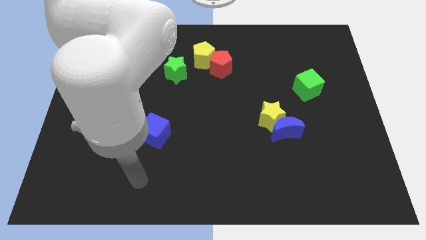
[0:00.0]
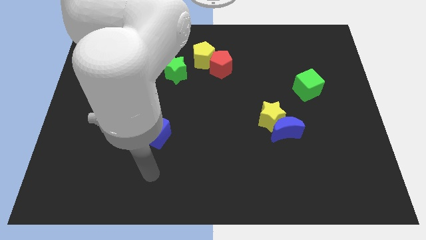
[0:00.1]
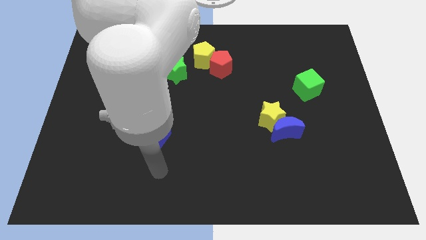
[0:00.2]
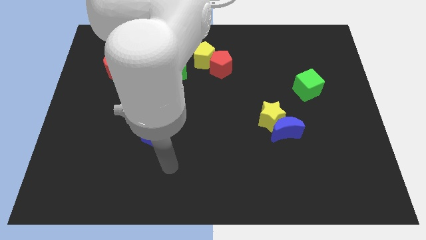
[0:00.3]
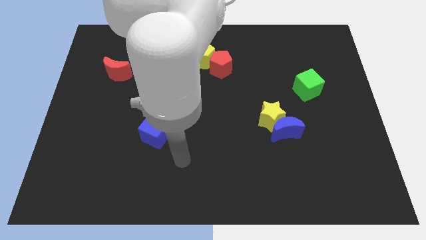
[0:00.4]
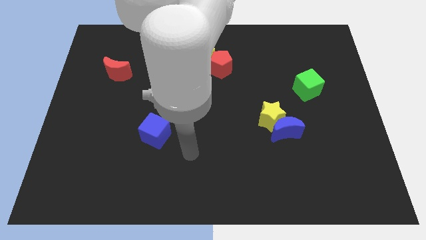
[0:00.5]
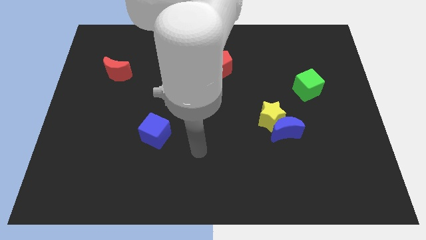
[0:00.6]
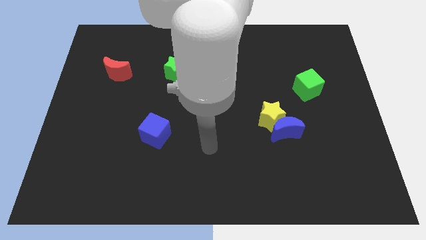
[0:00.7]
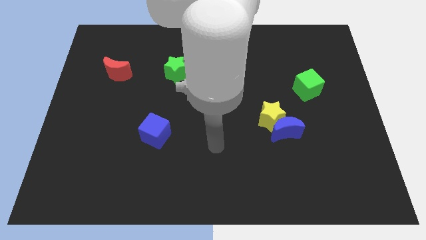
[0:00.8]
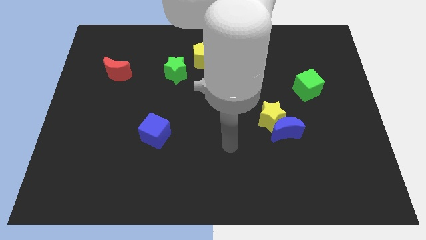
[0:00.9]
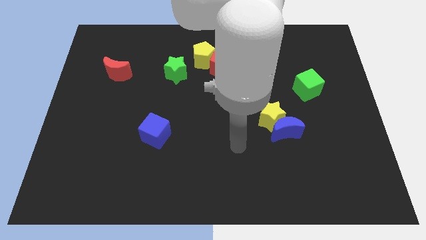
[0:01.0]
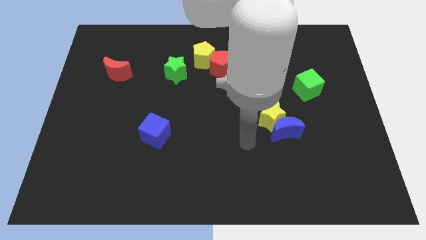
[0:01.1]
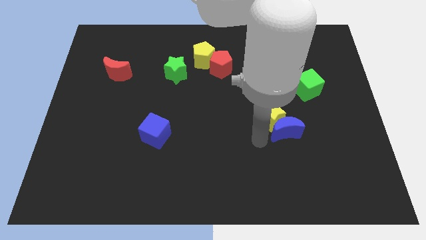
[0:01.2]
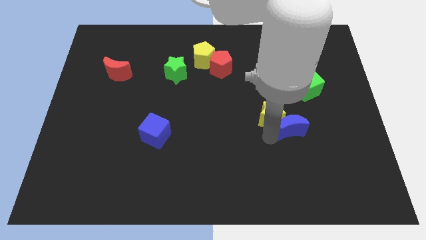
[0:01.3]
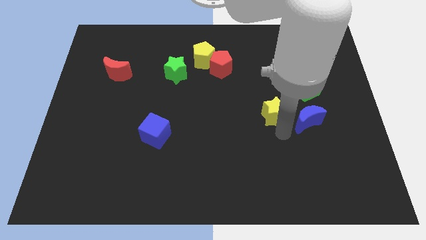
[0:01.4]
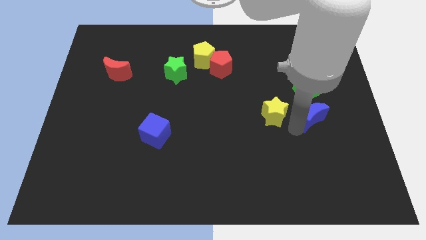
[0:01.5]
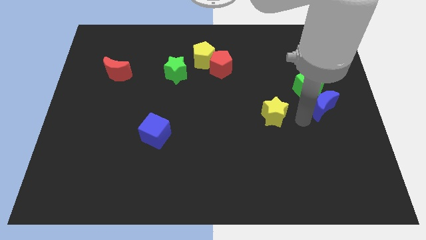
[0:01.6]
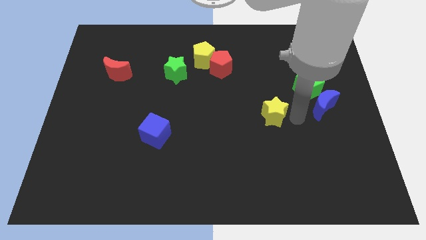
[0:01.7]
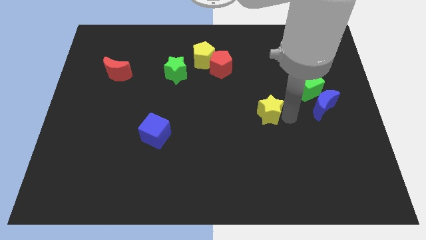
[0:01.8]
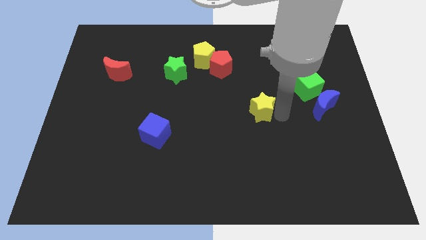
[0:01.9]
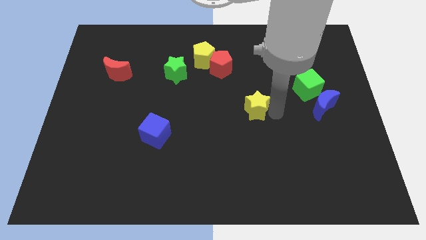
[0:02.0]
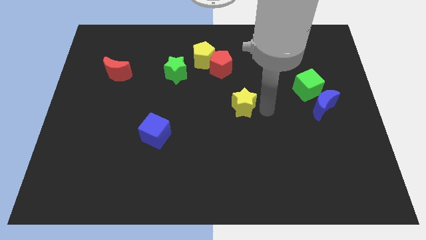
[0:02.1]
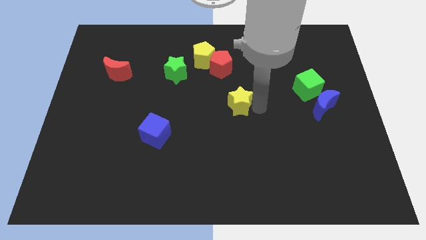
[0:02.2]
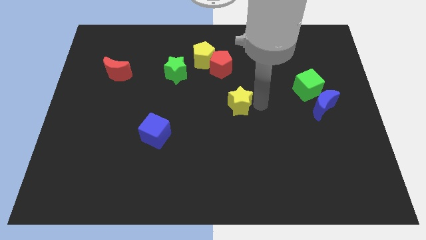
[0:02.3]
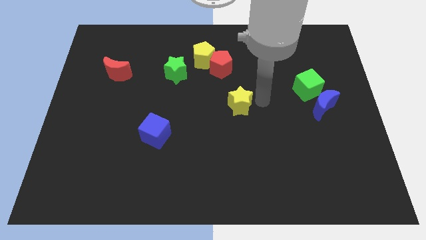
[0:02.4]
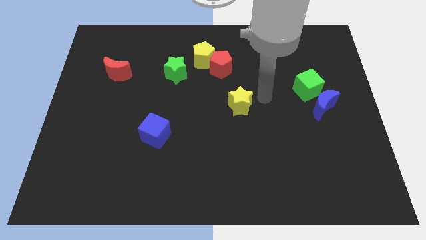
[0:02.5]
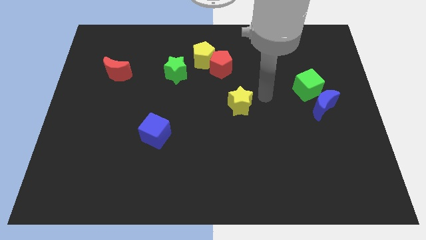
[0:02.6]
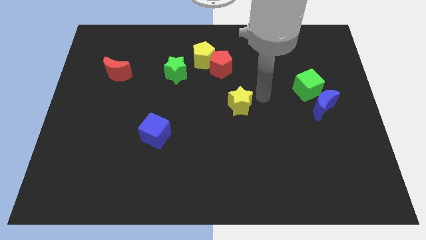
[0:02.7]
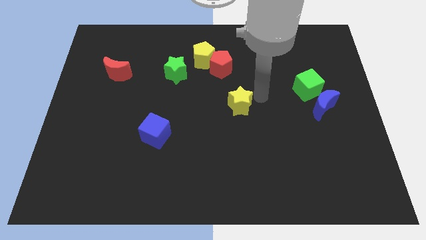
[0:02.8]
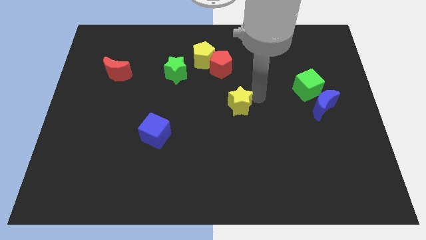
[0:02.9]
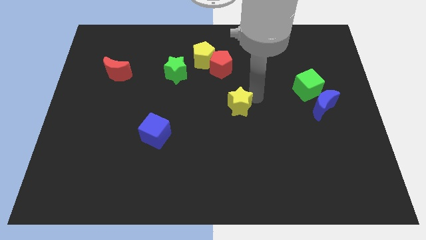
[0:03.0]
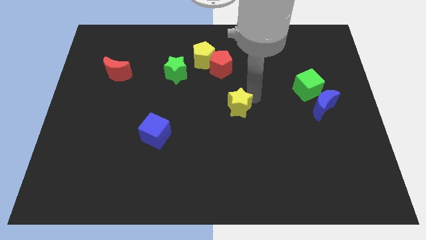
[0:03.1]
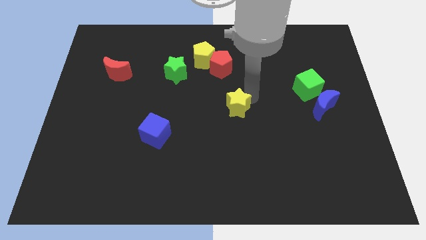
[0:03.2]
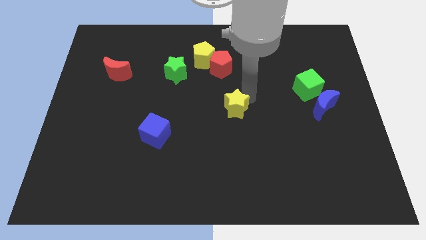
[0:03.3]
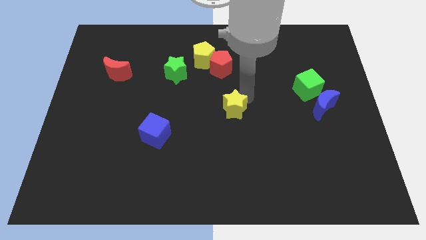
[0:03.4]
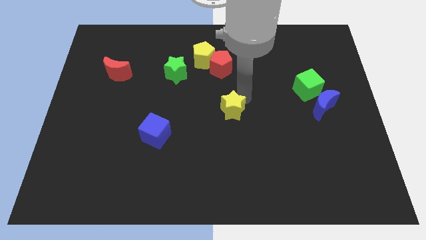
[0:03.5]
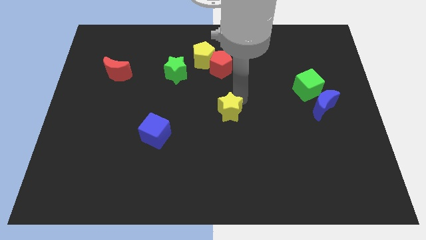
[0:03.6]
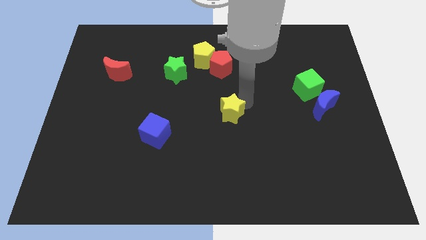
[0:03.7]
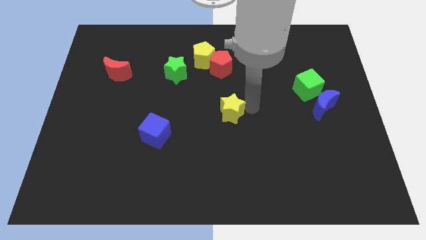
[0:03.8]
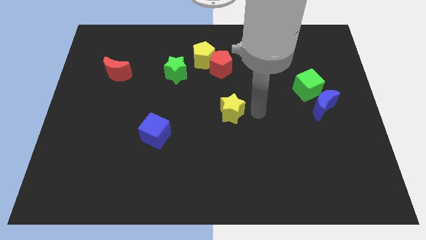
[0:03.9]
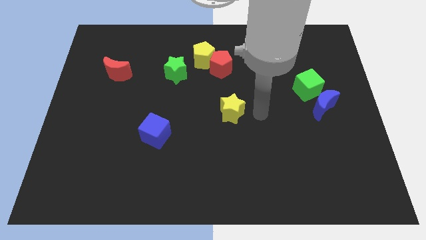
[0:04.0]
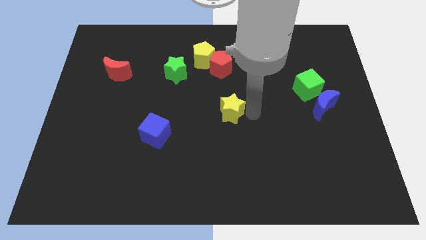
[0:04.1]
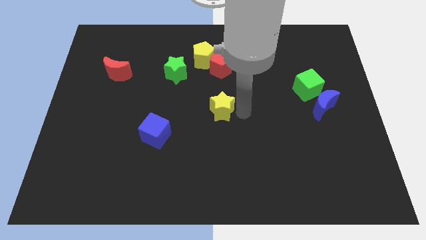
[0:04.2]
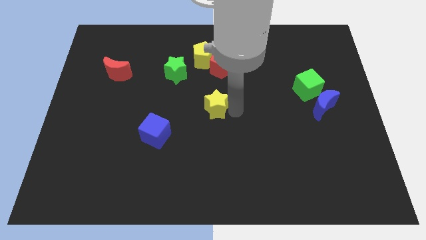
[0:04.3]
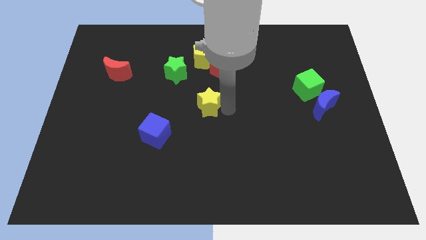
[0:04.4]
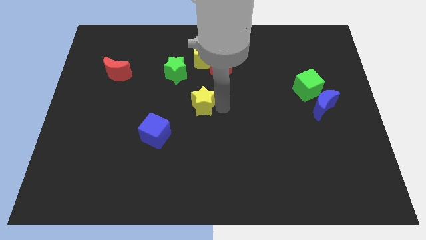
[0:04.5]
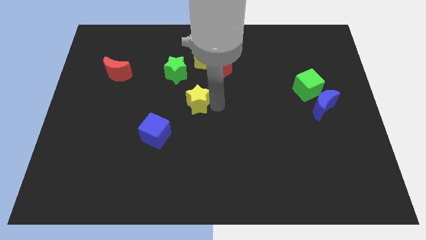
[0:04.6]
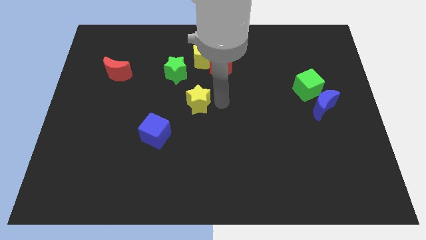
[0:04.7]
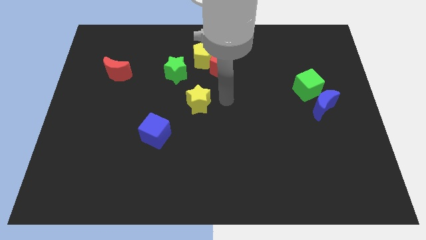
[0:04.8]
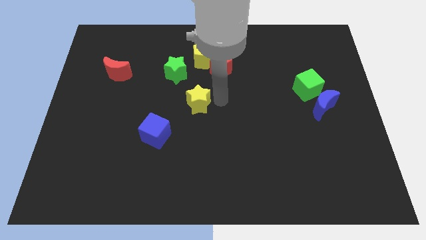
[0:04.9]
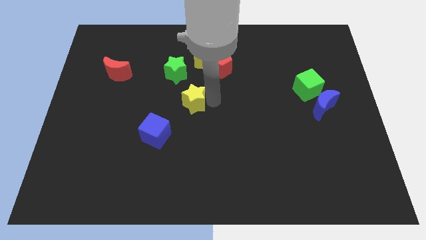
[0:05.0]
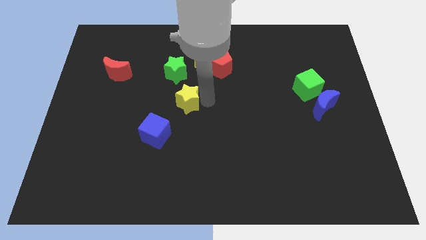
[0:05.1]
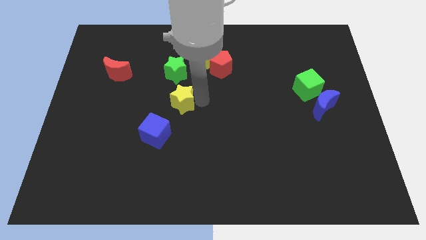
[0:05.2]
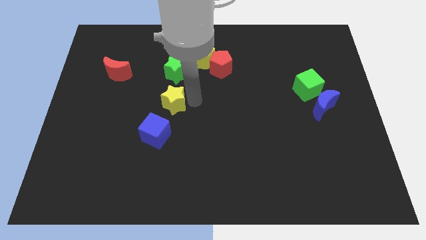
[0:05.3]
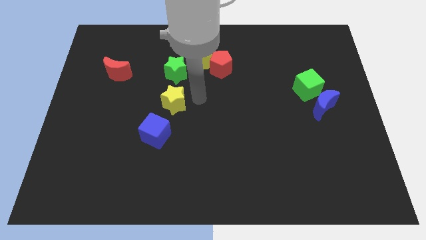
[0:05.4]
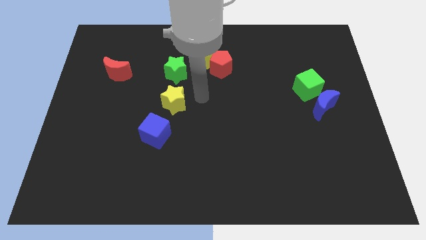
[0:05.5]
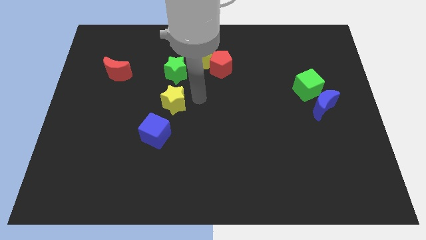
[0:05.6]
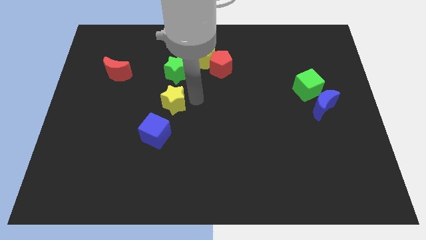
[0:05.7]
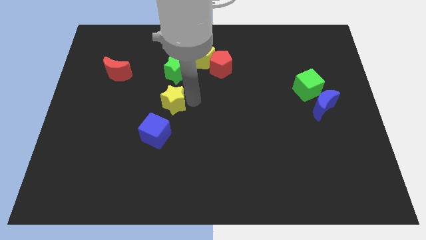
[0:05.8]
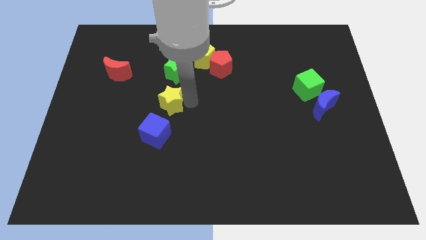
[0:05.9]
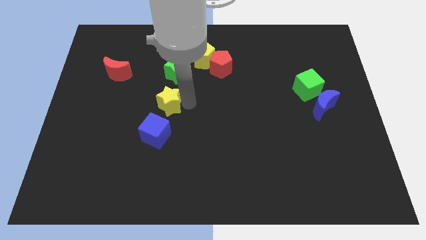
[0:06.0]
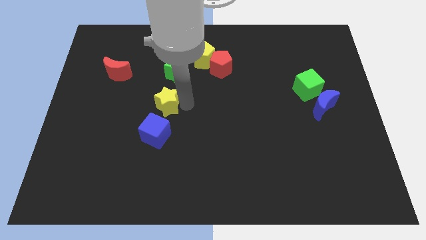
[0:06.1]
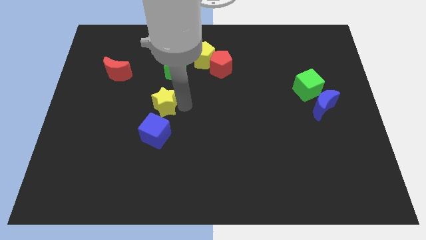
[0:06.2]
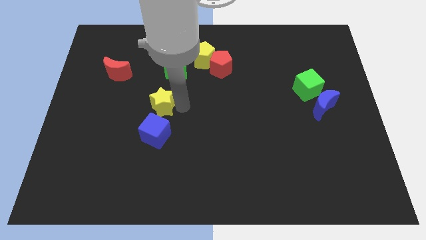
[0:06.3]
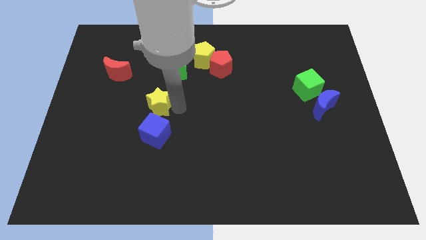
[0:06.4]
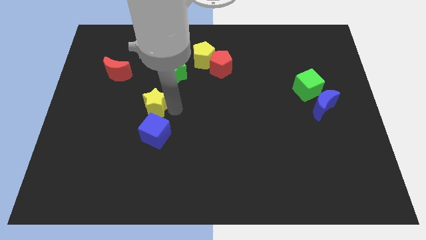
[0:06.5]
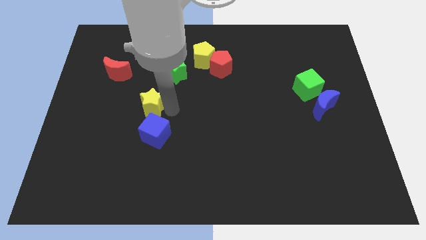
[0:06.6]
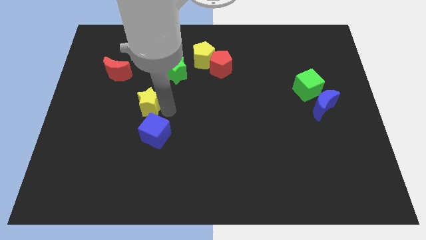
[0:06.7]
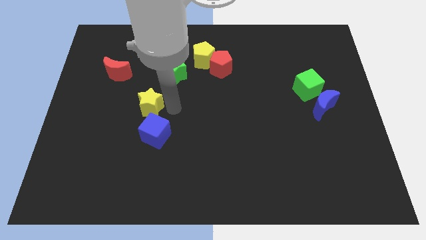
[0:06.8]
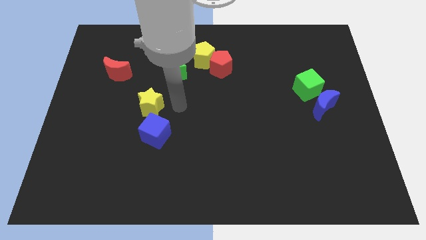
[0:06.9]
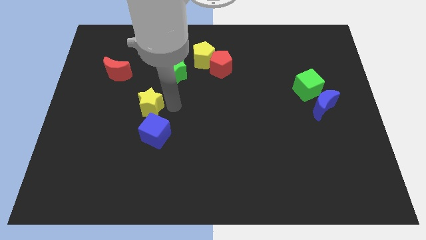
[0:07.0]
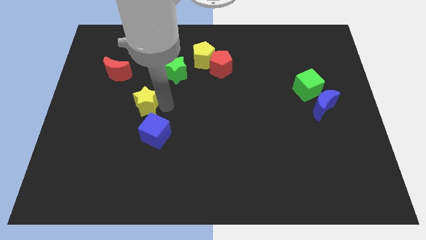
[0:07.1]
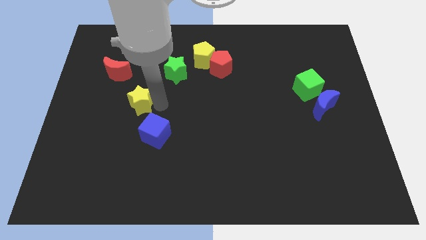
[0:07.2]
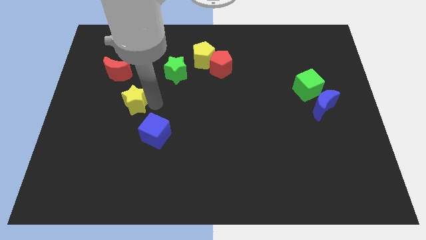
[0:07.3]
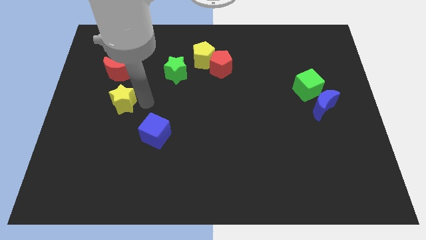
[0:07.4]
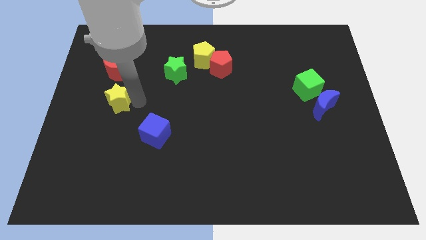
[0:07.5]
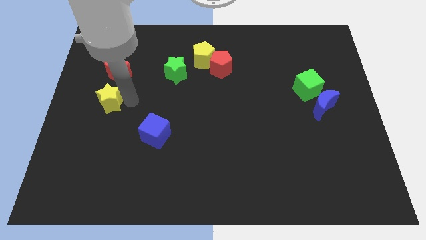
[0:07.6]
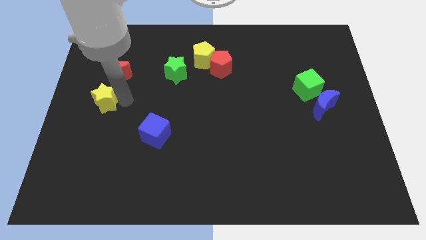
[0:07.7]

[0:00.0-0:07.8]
put the yellow star to the left side of the board
